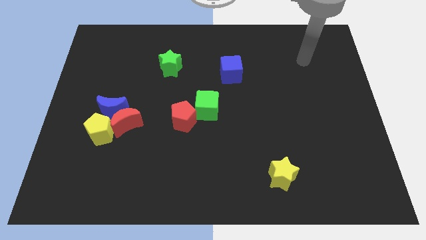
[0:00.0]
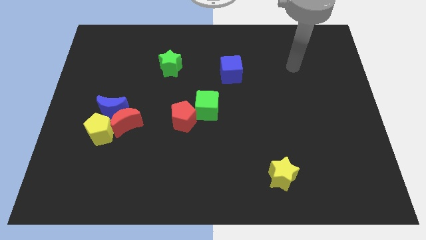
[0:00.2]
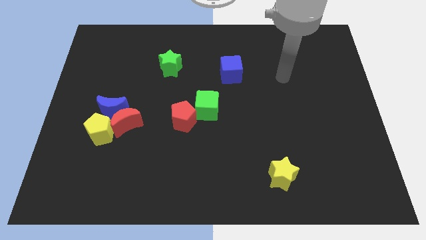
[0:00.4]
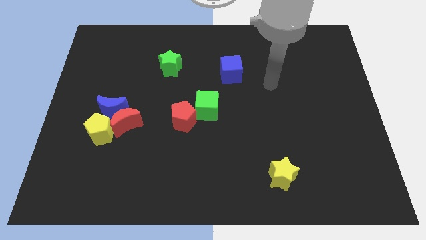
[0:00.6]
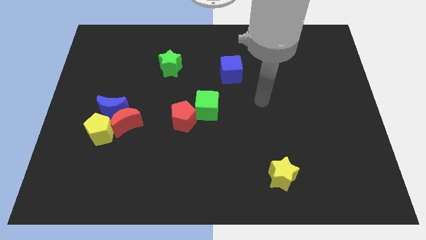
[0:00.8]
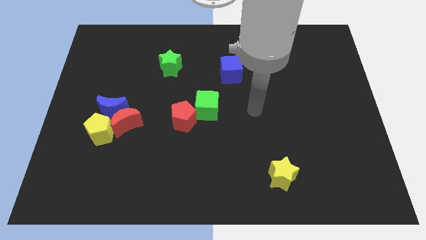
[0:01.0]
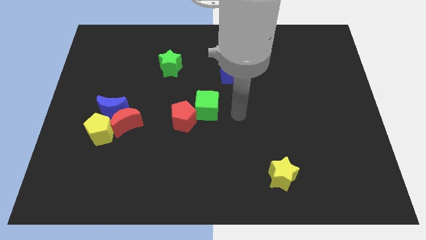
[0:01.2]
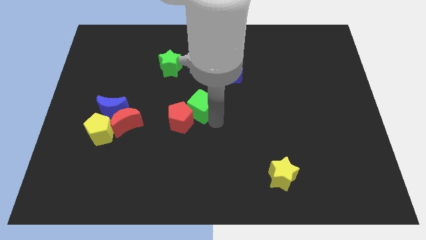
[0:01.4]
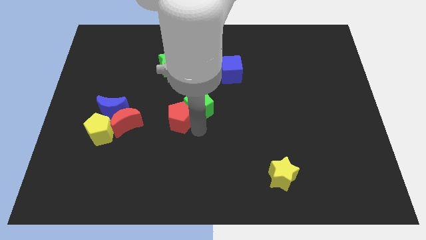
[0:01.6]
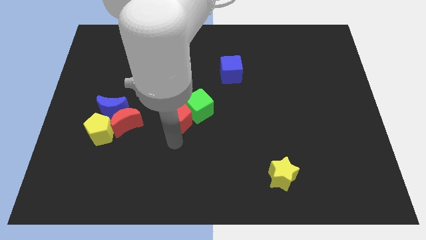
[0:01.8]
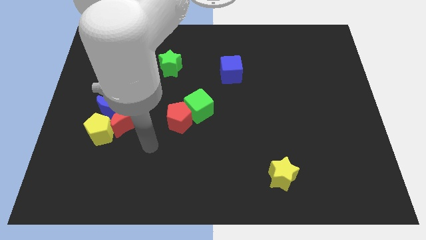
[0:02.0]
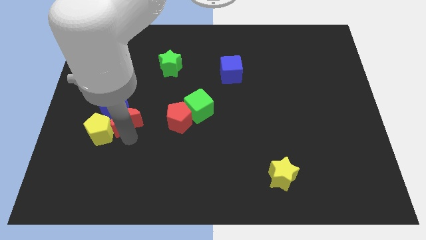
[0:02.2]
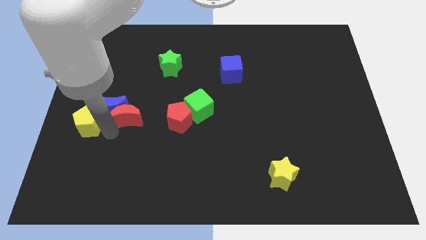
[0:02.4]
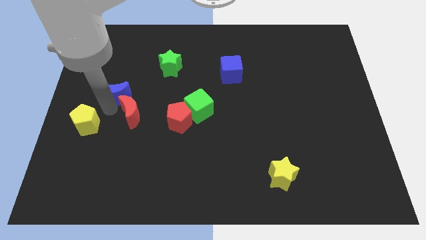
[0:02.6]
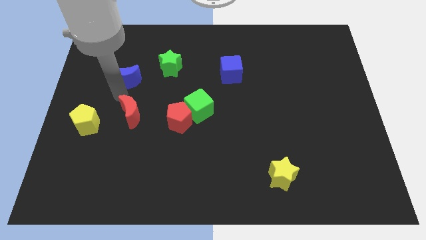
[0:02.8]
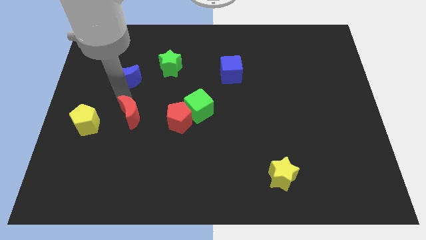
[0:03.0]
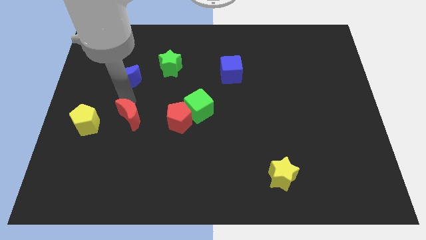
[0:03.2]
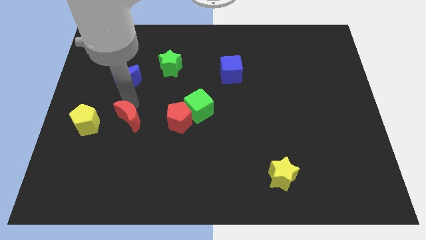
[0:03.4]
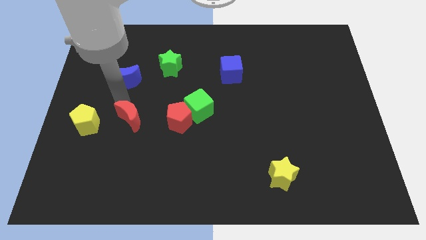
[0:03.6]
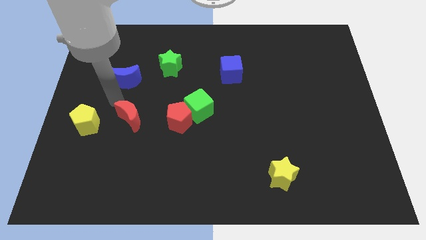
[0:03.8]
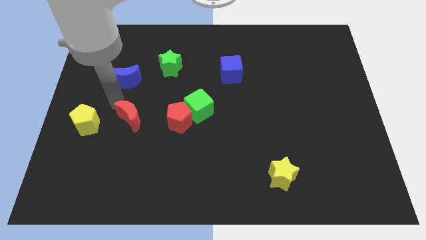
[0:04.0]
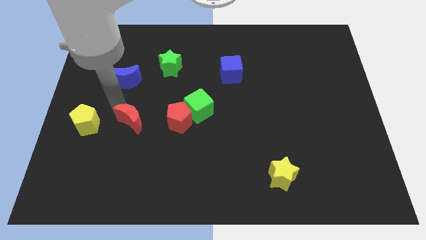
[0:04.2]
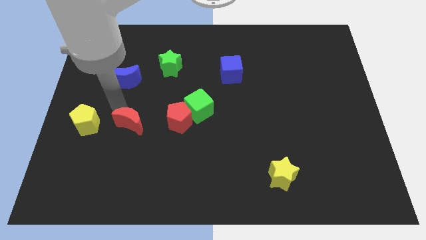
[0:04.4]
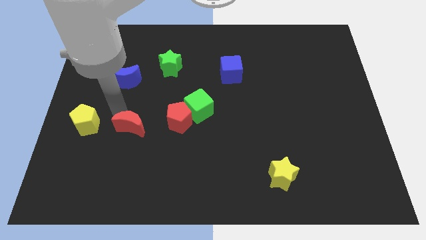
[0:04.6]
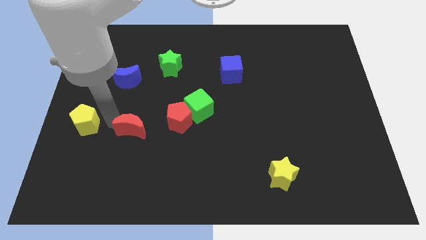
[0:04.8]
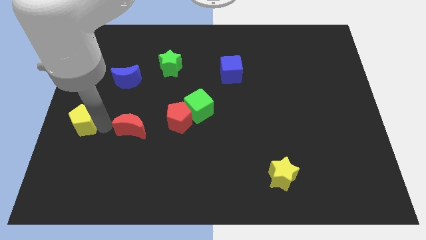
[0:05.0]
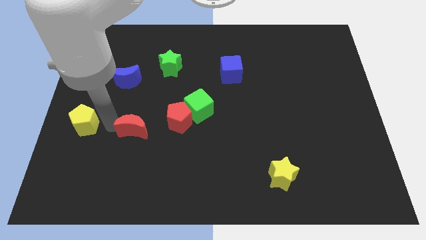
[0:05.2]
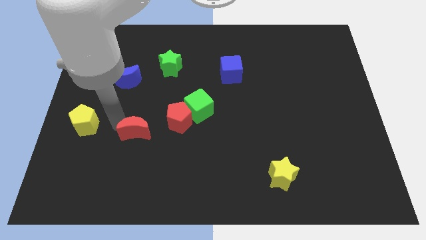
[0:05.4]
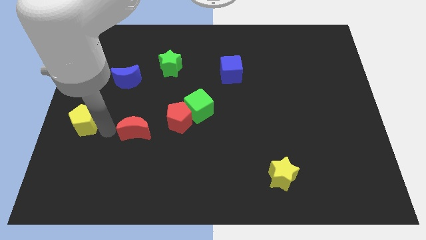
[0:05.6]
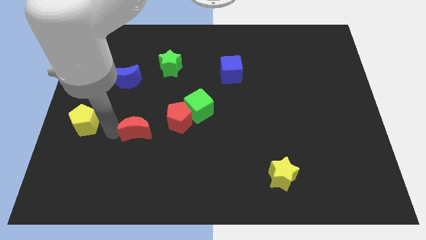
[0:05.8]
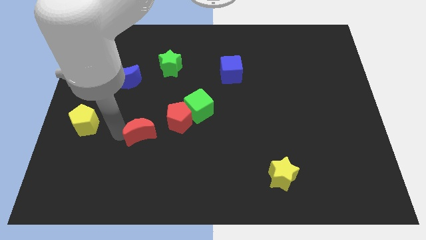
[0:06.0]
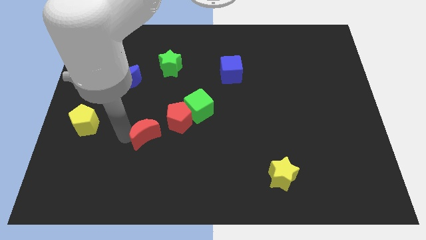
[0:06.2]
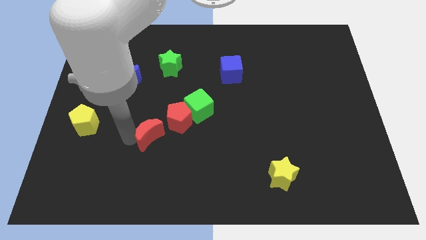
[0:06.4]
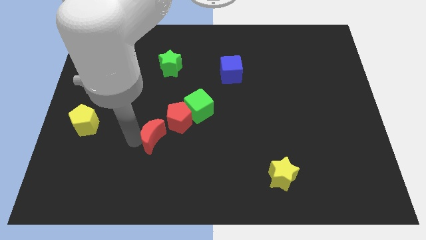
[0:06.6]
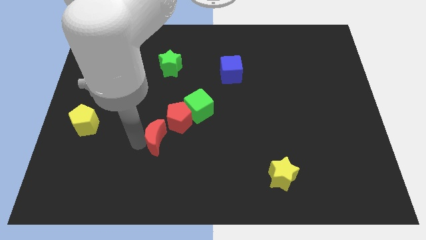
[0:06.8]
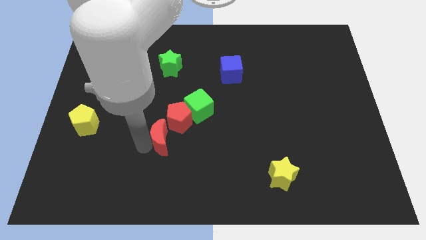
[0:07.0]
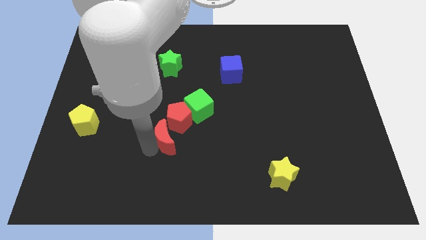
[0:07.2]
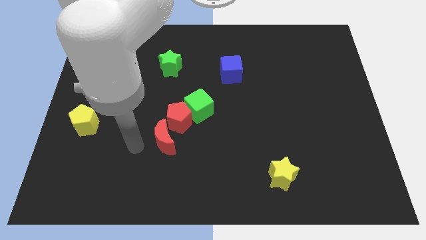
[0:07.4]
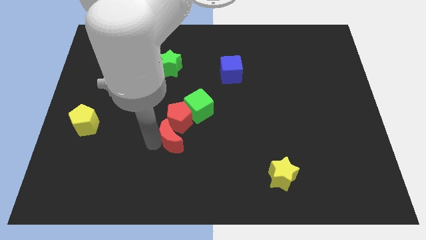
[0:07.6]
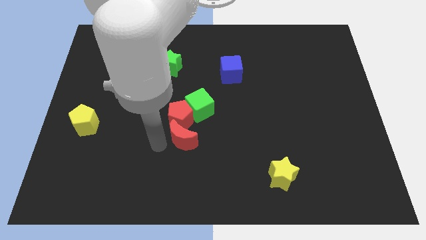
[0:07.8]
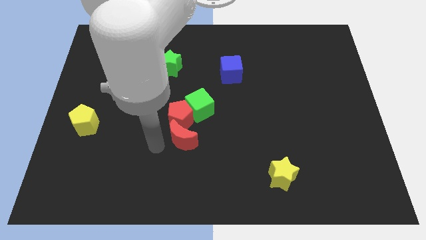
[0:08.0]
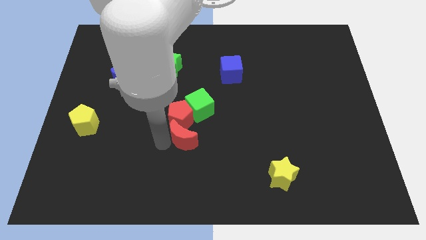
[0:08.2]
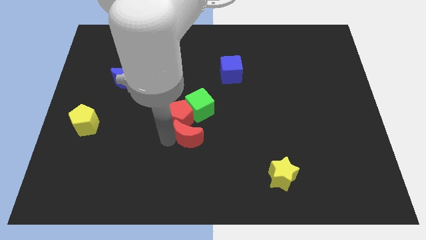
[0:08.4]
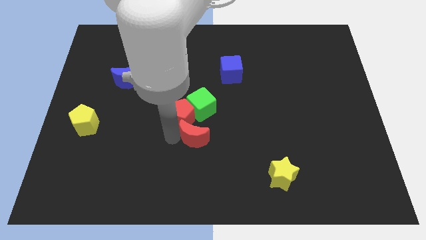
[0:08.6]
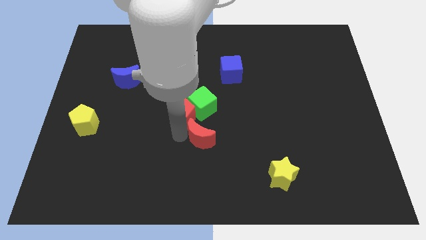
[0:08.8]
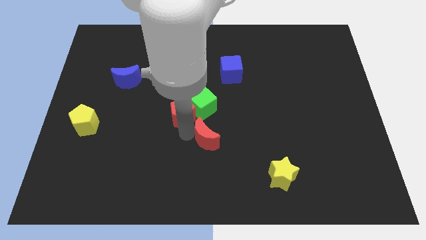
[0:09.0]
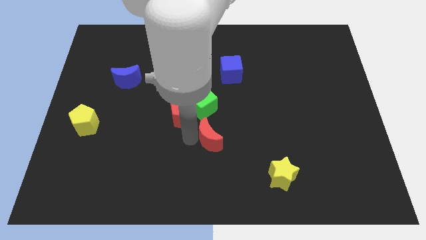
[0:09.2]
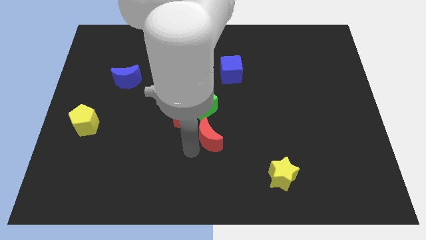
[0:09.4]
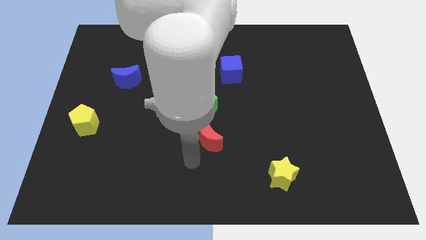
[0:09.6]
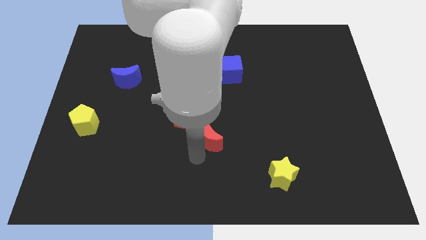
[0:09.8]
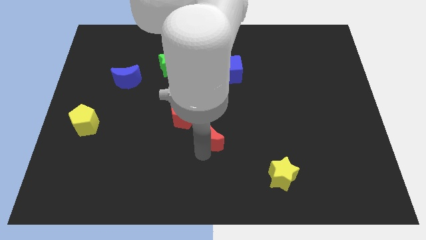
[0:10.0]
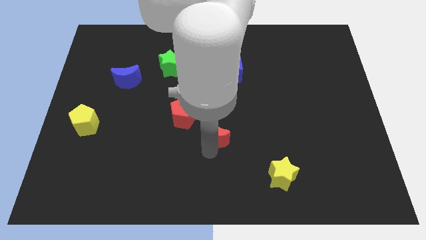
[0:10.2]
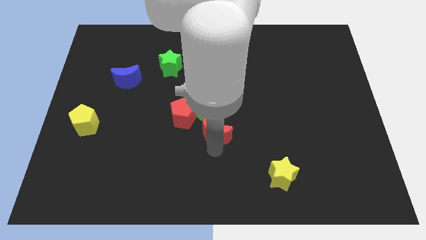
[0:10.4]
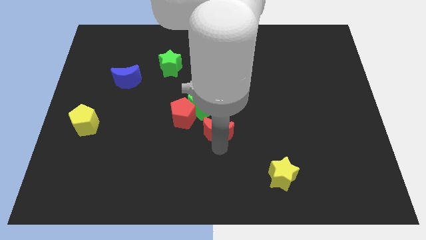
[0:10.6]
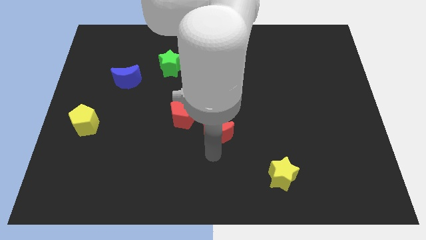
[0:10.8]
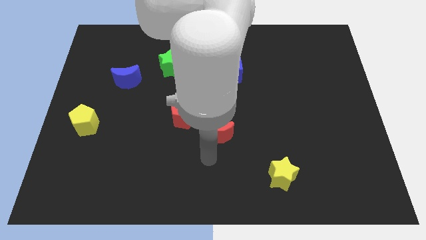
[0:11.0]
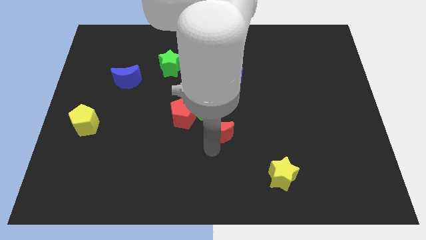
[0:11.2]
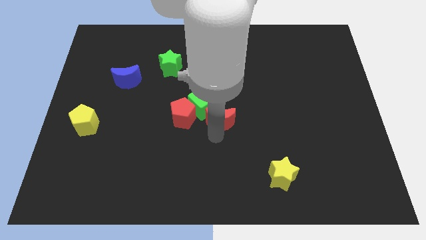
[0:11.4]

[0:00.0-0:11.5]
push the red moon to the bottom of the blue cube
